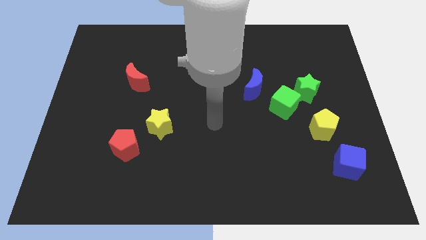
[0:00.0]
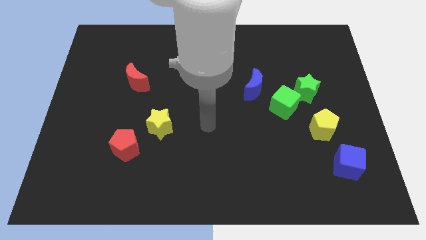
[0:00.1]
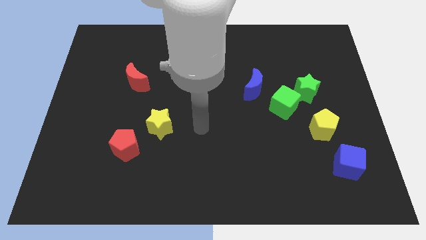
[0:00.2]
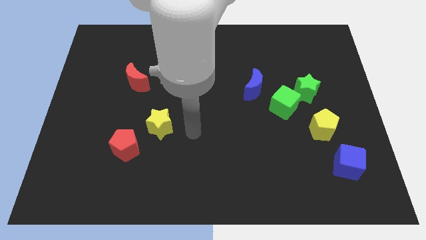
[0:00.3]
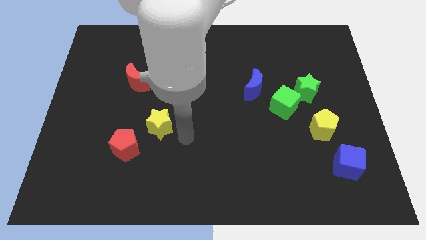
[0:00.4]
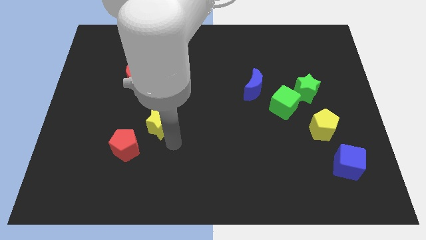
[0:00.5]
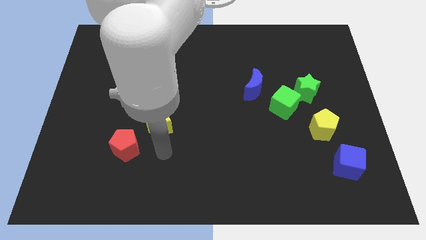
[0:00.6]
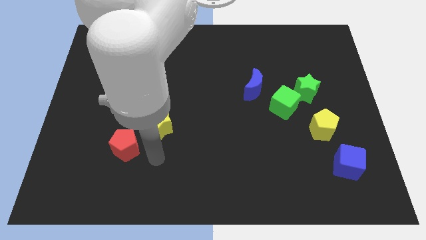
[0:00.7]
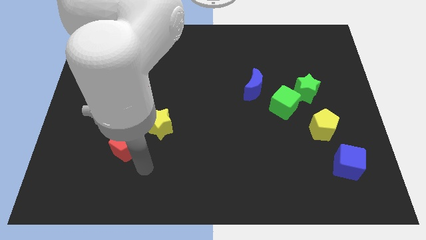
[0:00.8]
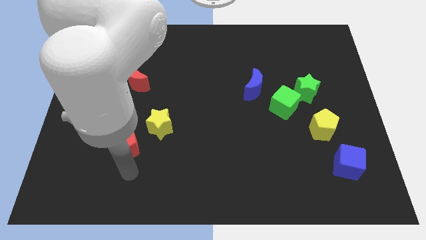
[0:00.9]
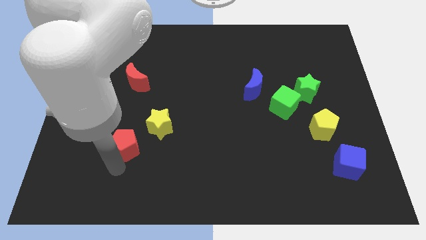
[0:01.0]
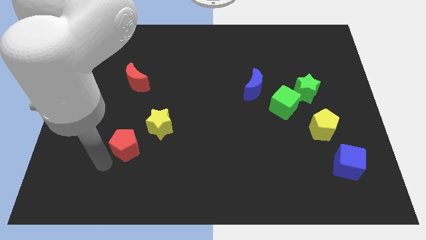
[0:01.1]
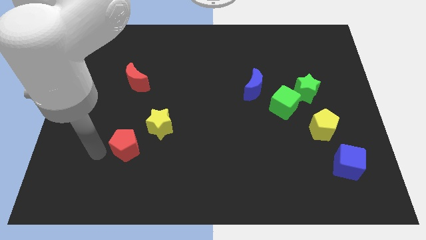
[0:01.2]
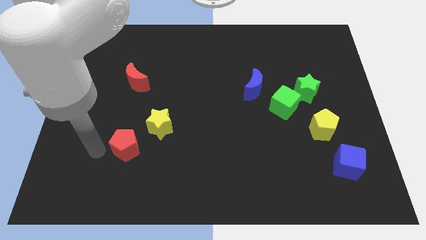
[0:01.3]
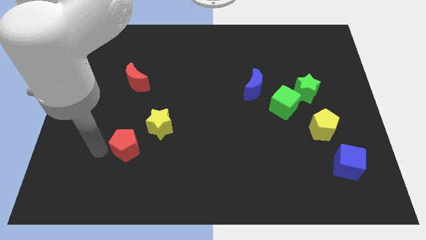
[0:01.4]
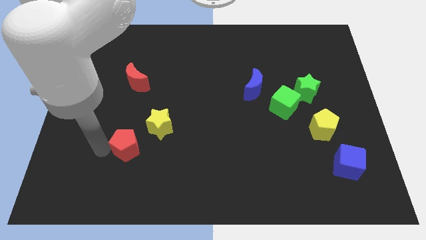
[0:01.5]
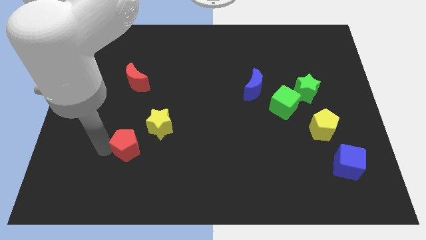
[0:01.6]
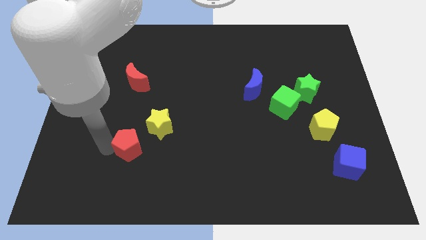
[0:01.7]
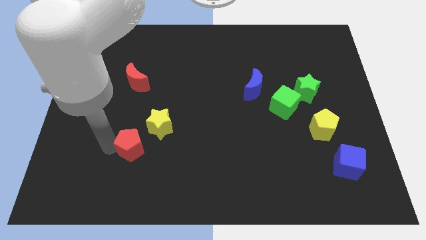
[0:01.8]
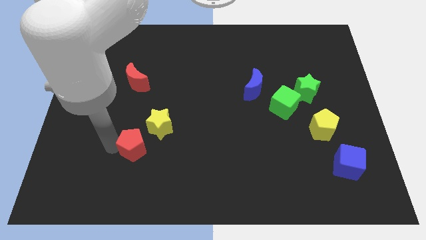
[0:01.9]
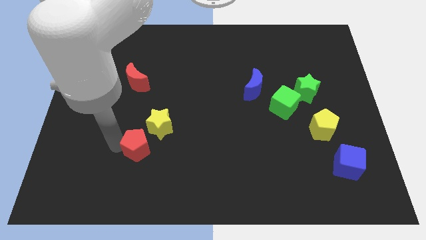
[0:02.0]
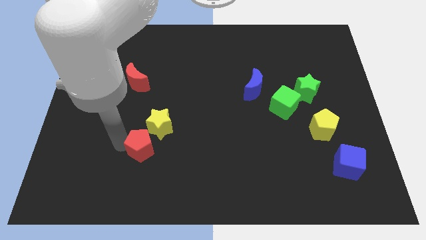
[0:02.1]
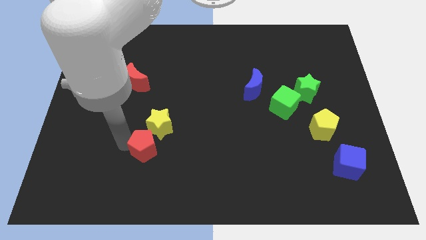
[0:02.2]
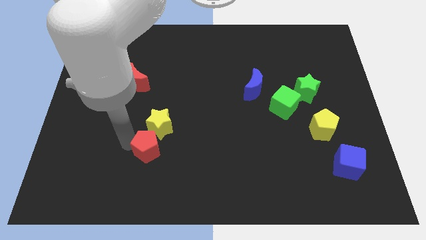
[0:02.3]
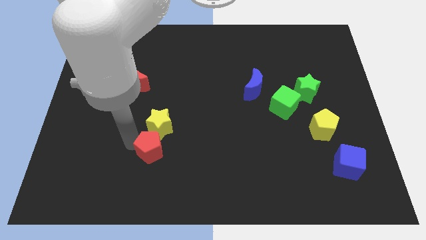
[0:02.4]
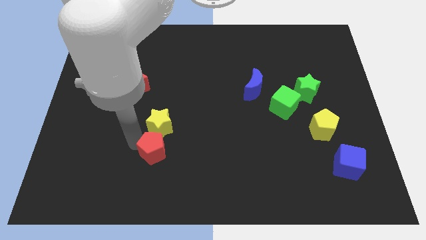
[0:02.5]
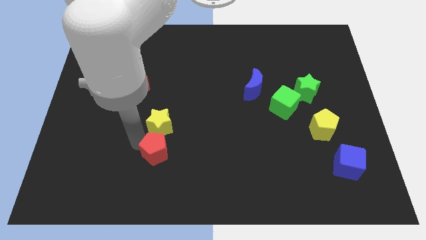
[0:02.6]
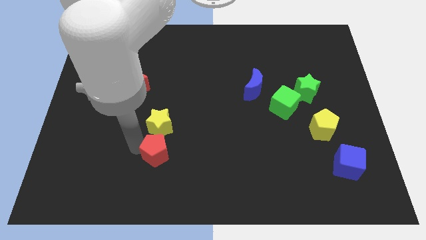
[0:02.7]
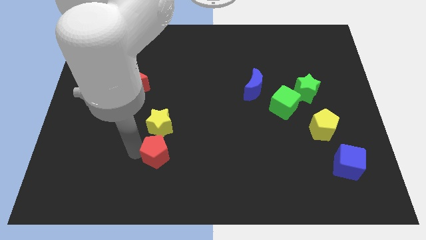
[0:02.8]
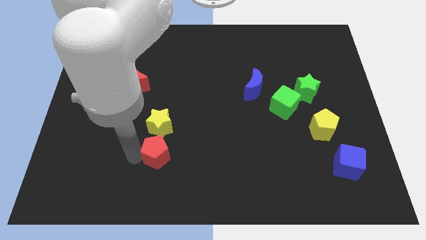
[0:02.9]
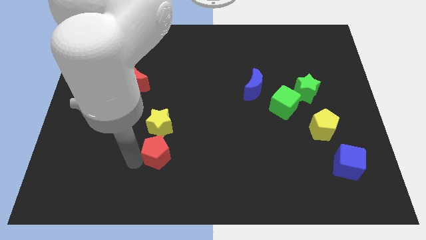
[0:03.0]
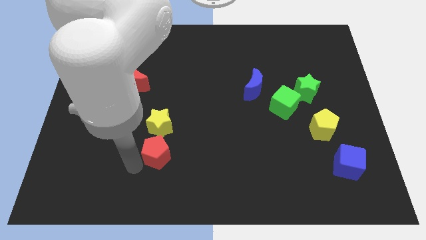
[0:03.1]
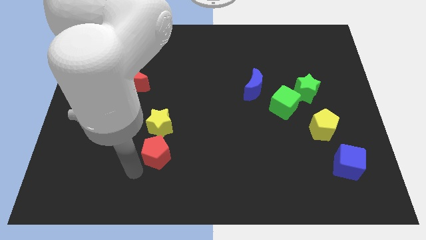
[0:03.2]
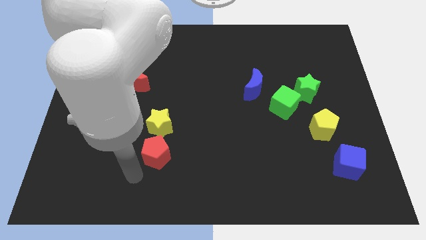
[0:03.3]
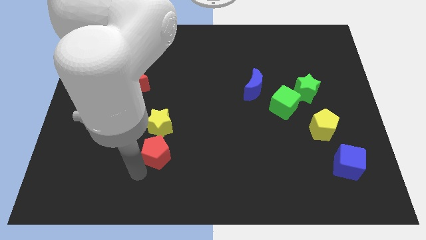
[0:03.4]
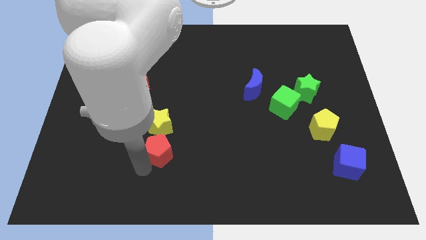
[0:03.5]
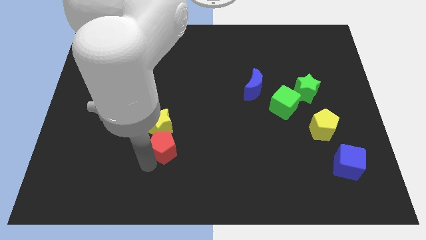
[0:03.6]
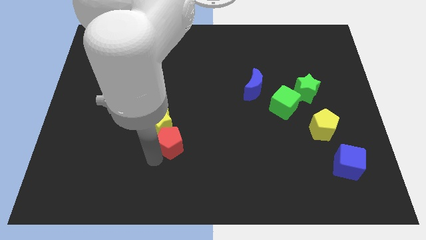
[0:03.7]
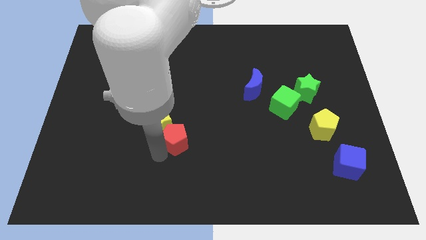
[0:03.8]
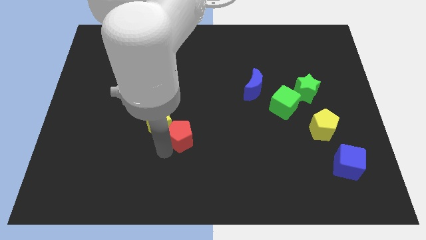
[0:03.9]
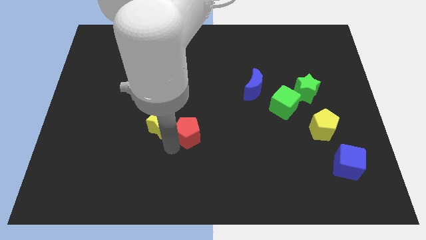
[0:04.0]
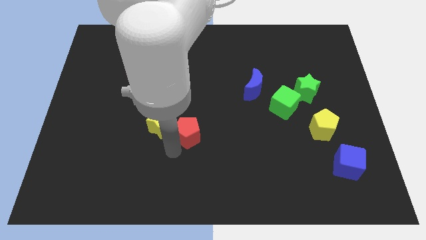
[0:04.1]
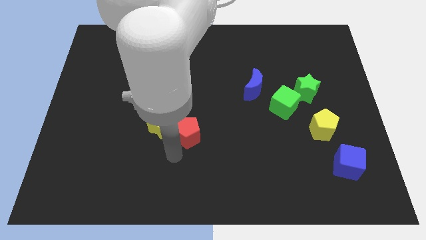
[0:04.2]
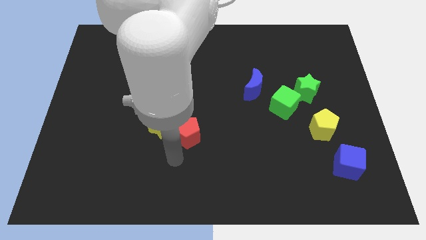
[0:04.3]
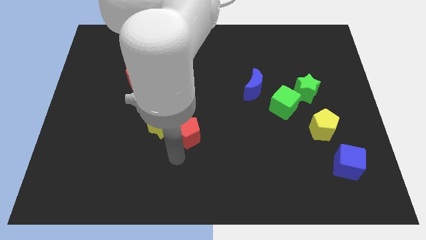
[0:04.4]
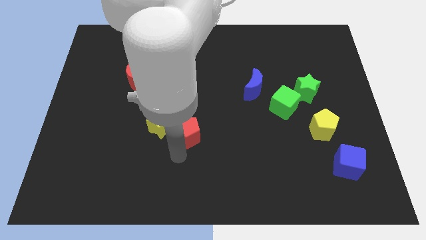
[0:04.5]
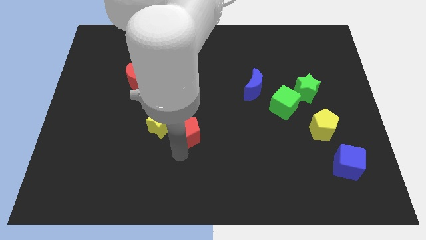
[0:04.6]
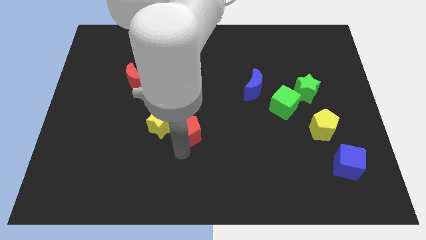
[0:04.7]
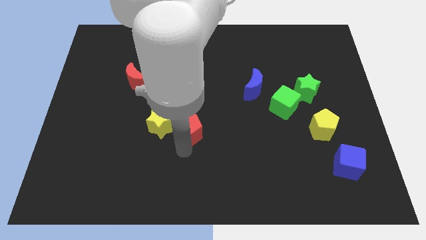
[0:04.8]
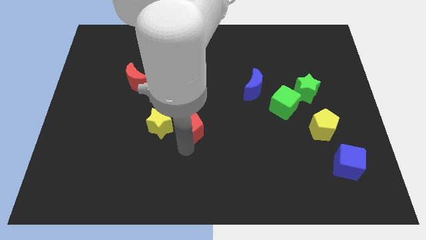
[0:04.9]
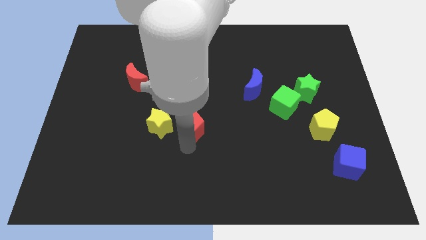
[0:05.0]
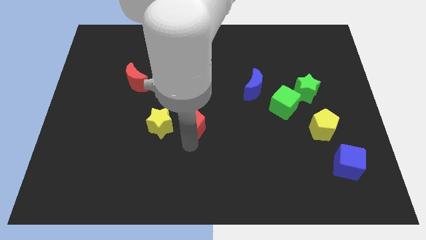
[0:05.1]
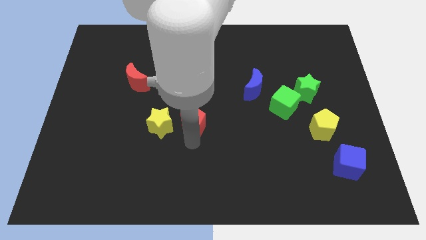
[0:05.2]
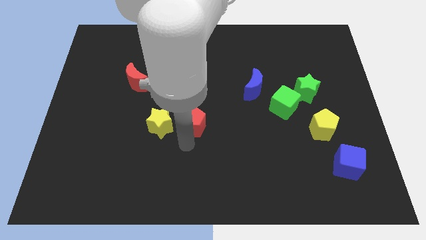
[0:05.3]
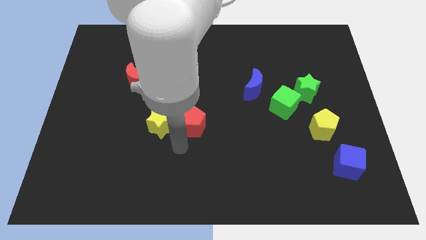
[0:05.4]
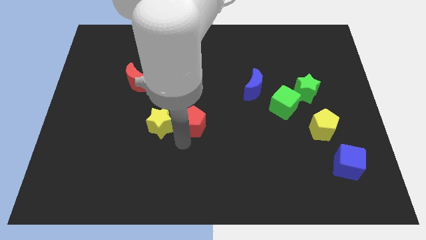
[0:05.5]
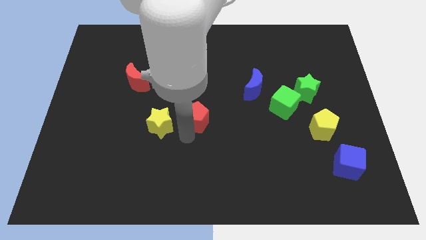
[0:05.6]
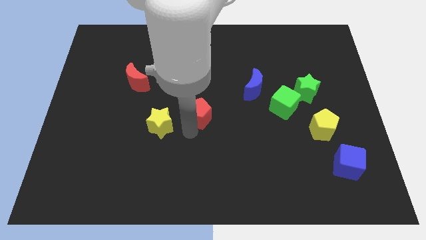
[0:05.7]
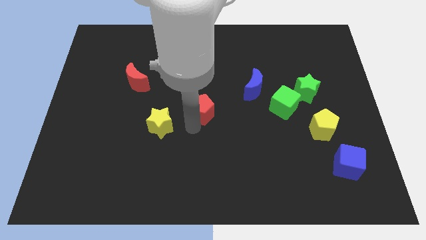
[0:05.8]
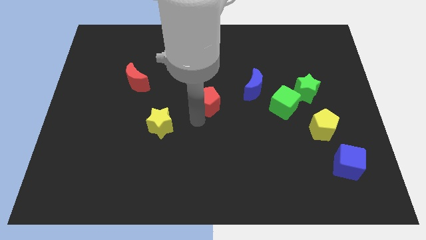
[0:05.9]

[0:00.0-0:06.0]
push the red pentagon upwards and to the right

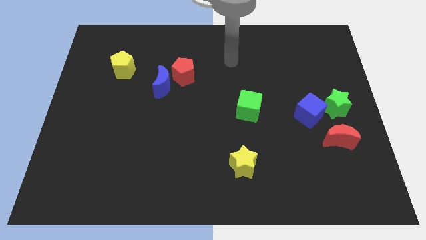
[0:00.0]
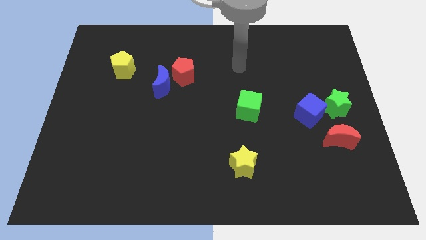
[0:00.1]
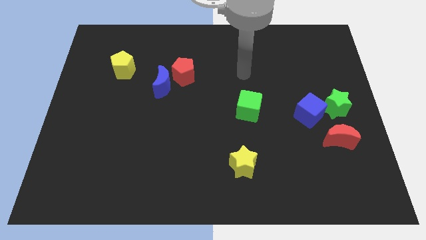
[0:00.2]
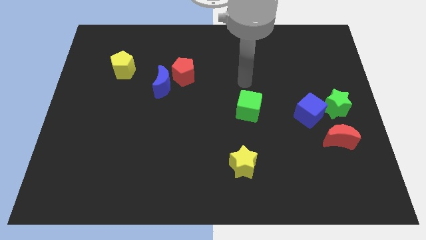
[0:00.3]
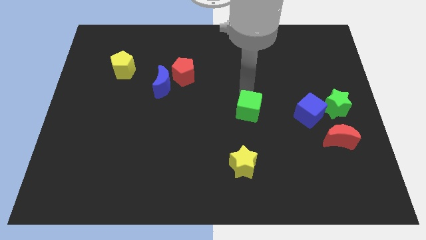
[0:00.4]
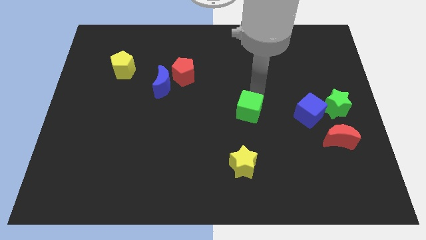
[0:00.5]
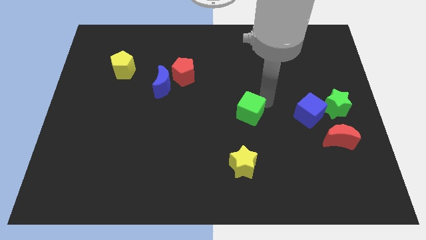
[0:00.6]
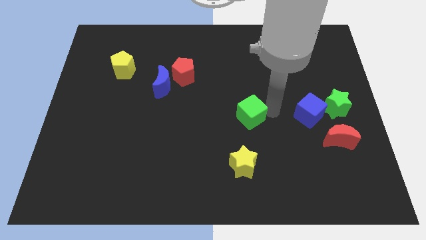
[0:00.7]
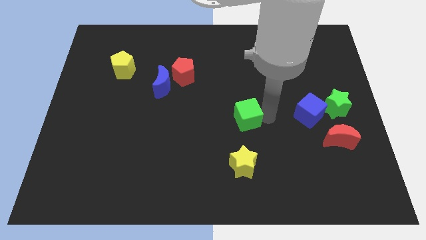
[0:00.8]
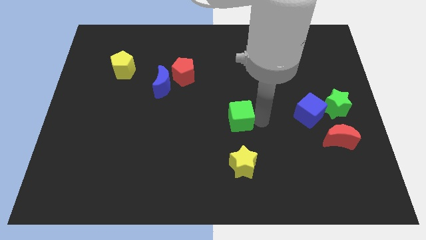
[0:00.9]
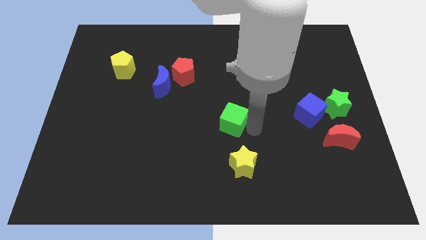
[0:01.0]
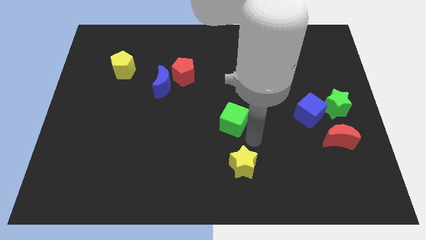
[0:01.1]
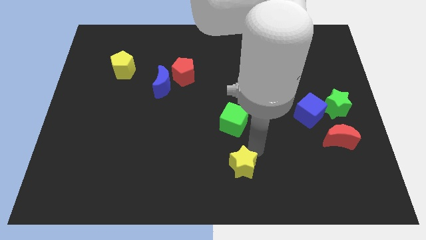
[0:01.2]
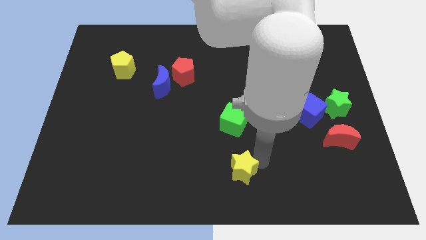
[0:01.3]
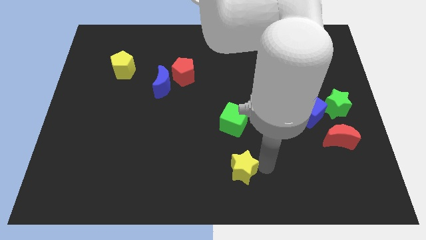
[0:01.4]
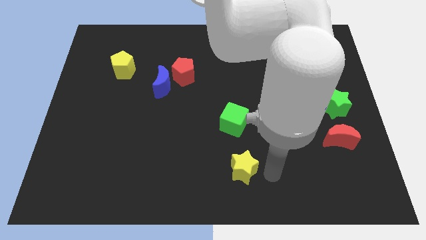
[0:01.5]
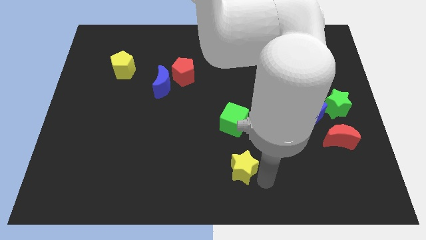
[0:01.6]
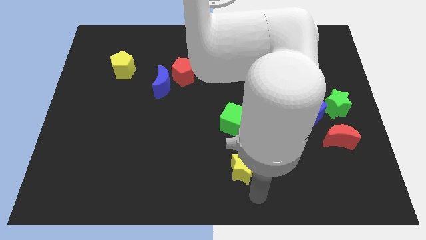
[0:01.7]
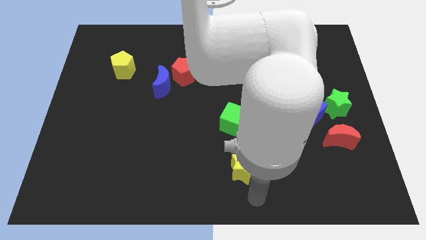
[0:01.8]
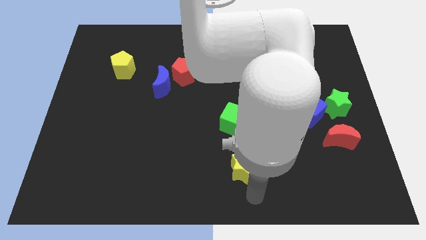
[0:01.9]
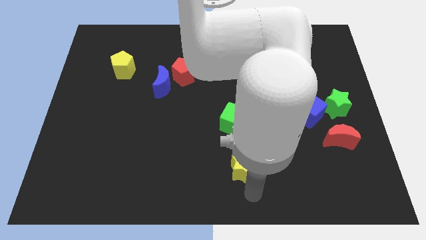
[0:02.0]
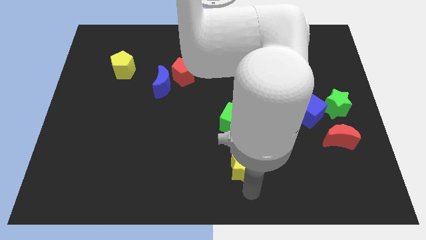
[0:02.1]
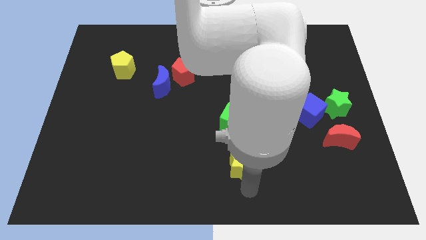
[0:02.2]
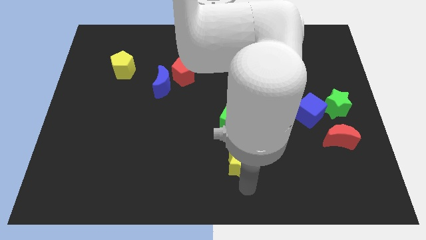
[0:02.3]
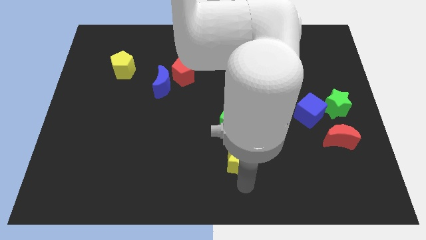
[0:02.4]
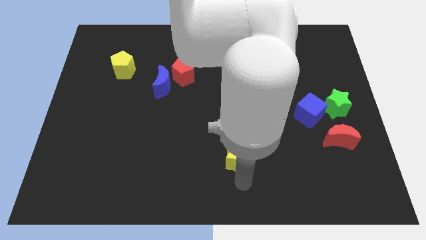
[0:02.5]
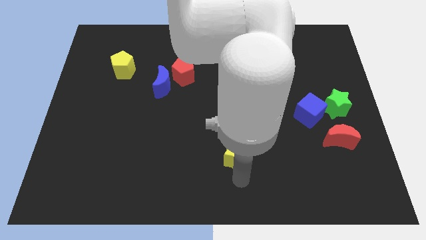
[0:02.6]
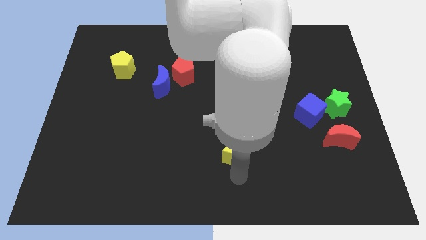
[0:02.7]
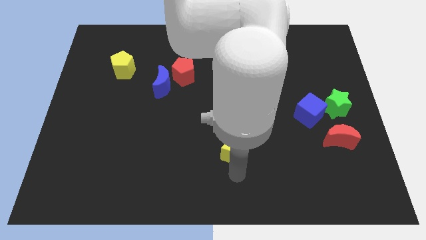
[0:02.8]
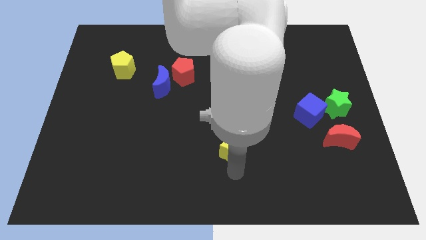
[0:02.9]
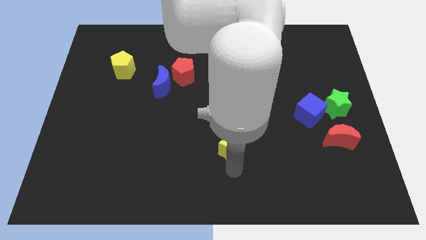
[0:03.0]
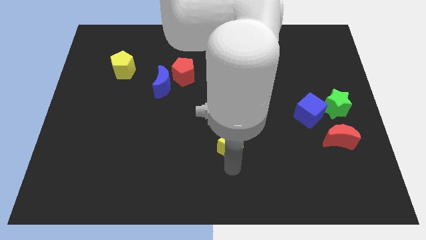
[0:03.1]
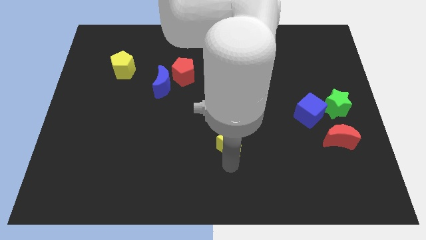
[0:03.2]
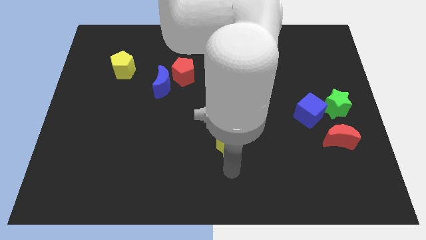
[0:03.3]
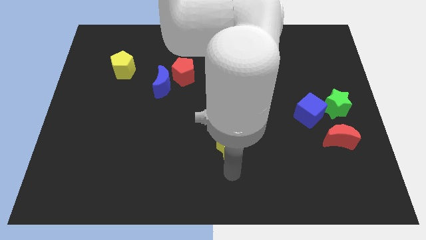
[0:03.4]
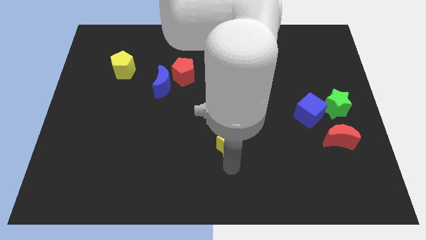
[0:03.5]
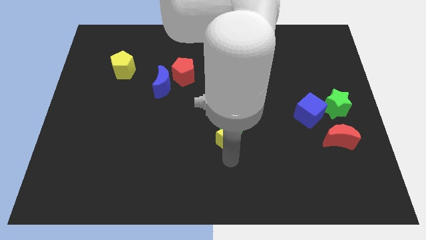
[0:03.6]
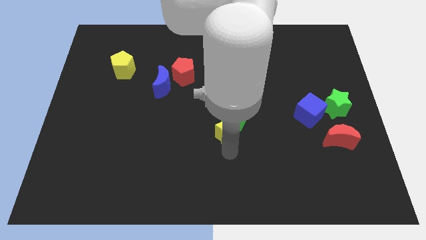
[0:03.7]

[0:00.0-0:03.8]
move the yellow star up a bit
